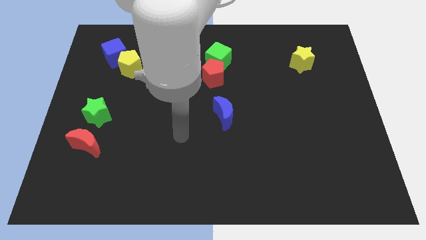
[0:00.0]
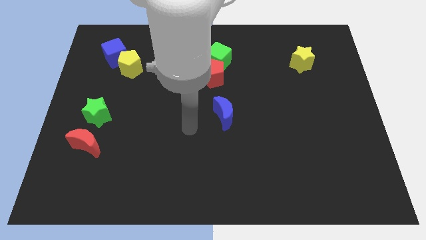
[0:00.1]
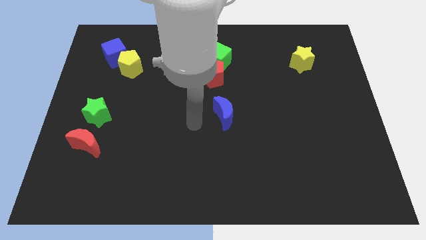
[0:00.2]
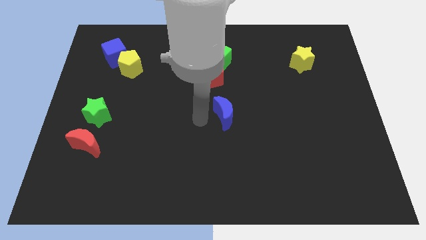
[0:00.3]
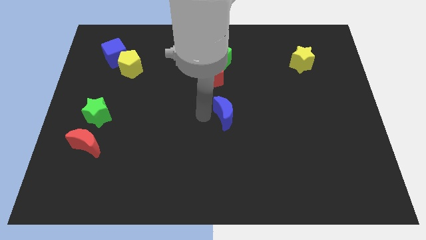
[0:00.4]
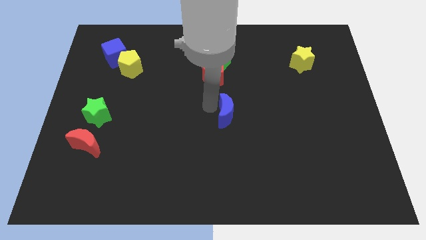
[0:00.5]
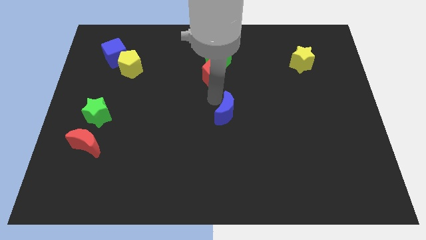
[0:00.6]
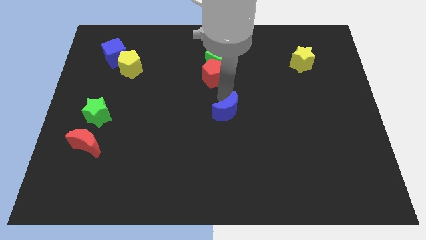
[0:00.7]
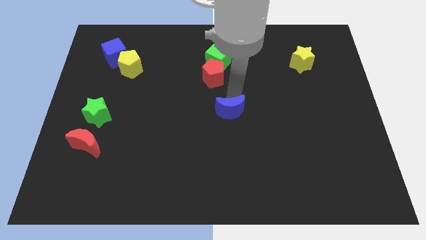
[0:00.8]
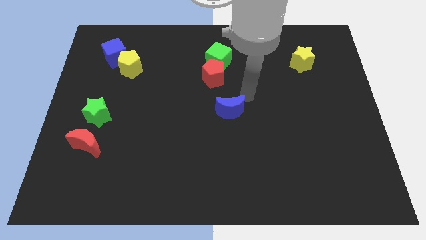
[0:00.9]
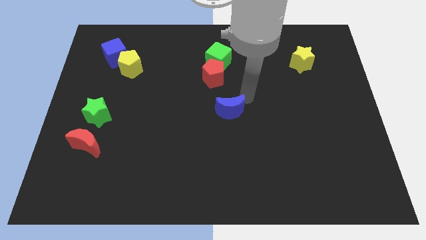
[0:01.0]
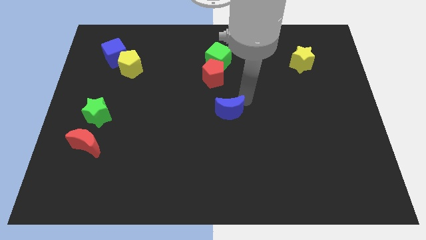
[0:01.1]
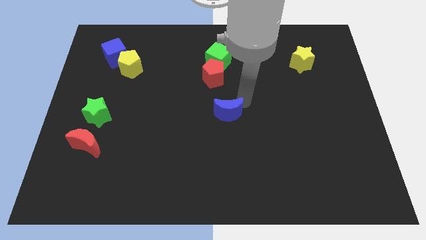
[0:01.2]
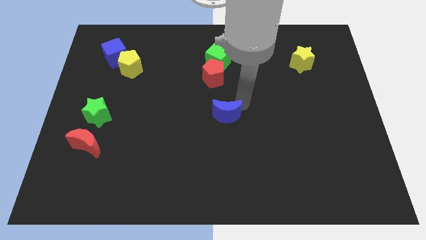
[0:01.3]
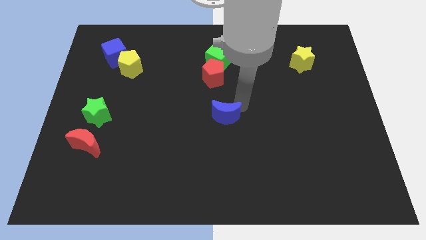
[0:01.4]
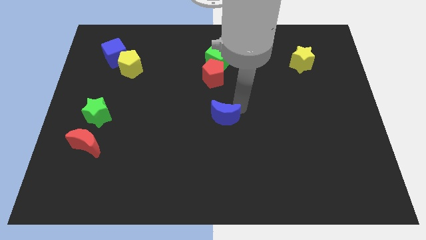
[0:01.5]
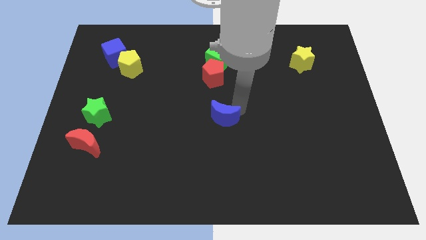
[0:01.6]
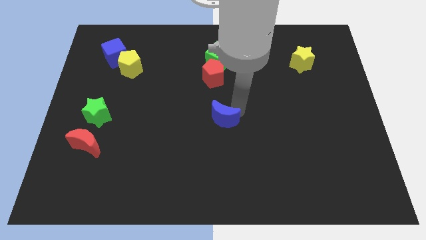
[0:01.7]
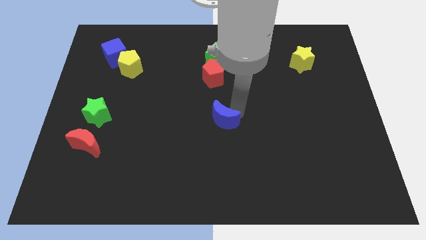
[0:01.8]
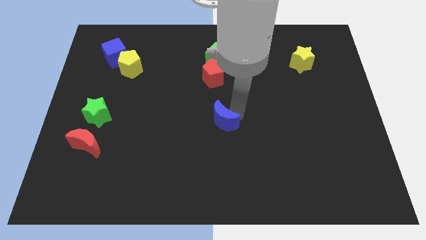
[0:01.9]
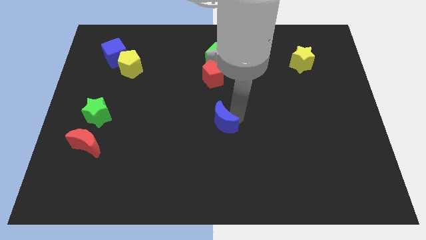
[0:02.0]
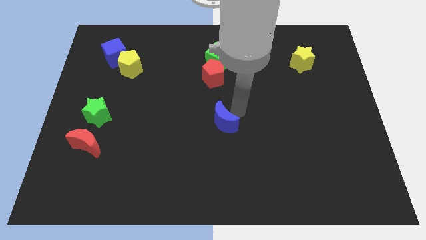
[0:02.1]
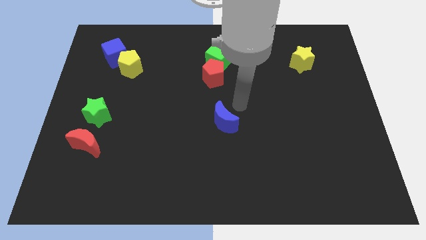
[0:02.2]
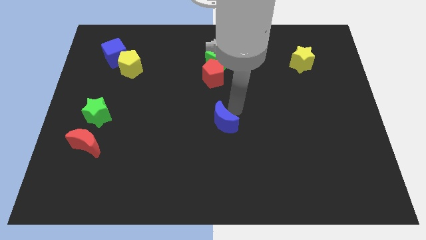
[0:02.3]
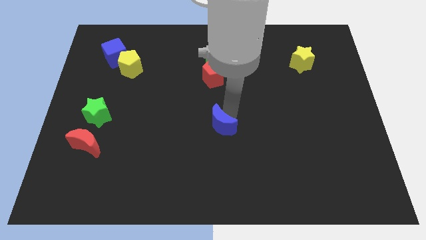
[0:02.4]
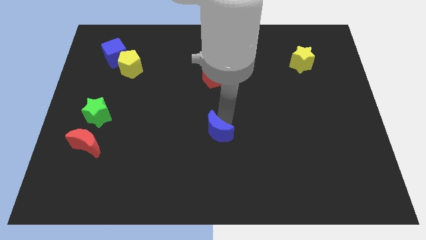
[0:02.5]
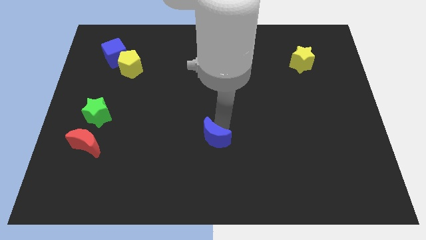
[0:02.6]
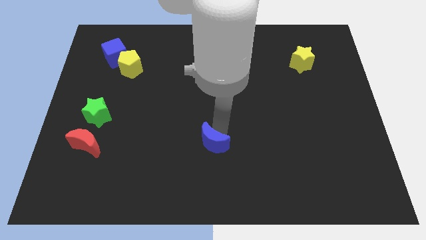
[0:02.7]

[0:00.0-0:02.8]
move the blue moon down and then to the left a little

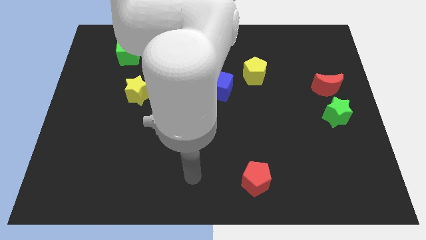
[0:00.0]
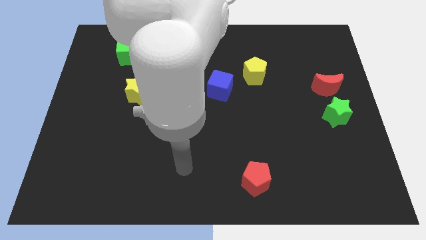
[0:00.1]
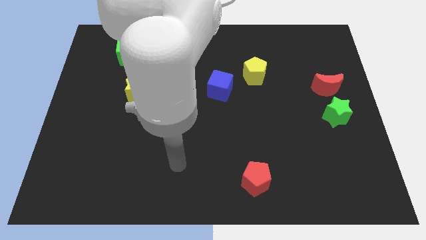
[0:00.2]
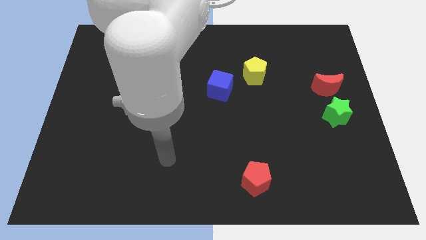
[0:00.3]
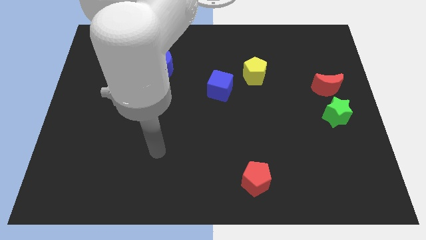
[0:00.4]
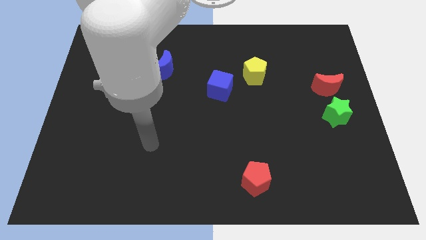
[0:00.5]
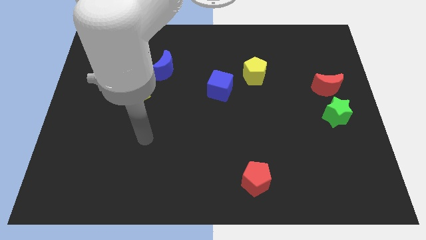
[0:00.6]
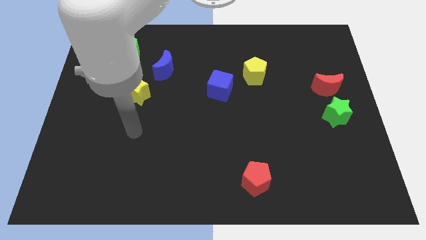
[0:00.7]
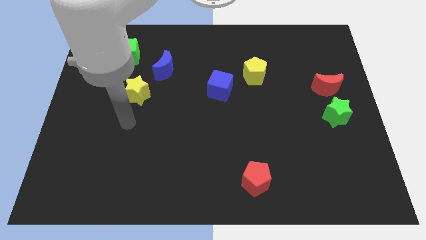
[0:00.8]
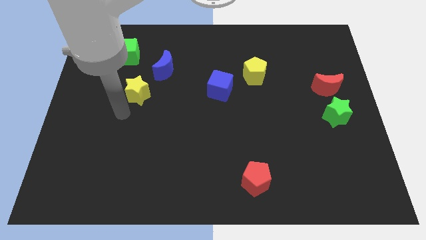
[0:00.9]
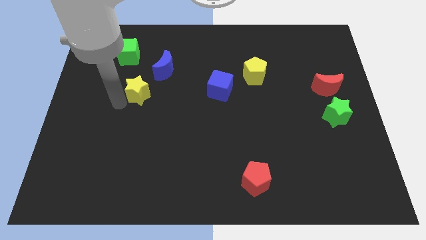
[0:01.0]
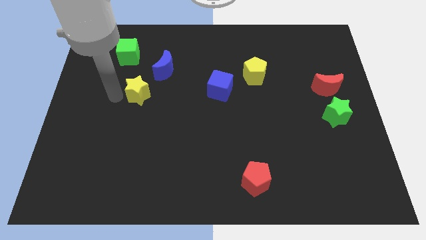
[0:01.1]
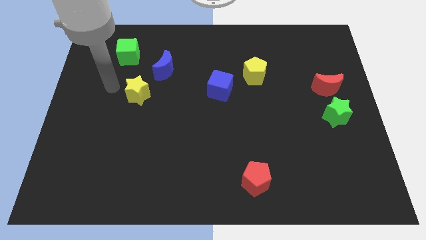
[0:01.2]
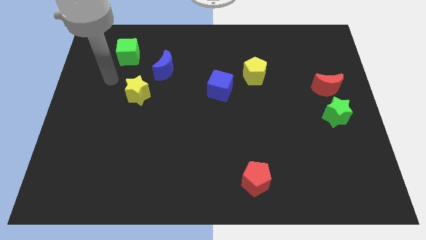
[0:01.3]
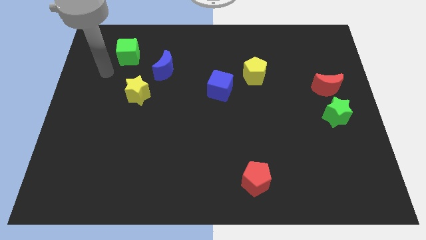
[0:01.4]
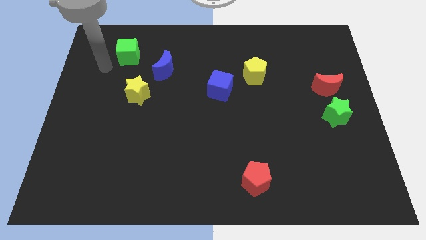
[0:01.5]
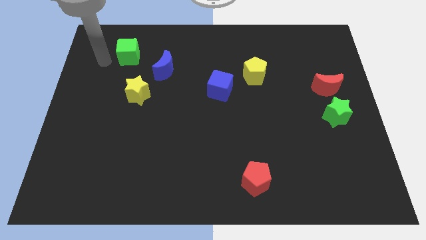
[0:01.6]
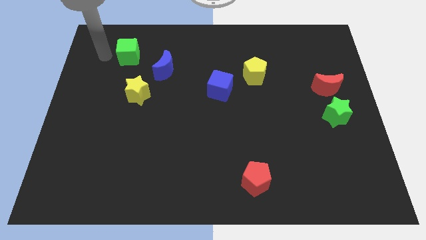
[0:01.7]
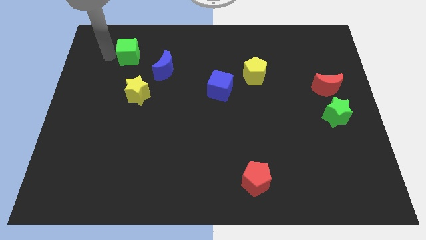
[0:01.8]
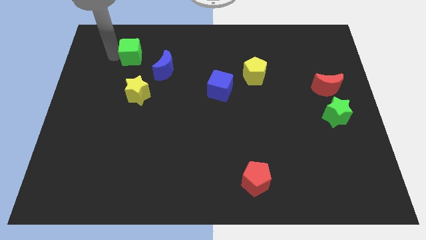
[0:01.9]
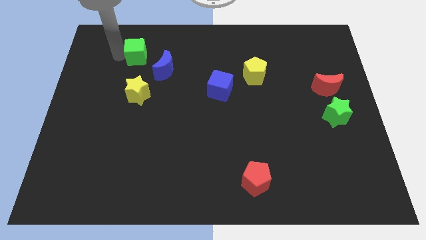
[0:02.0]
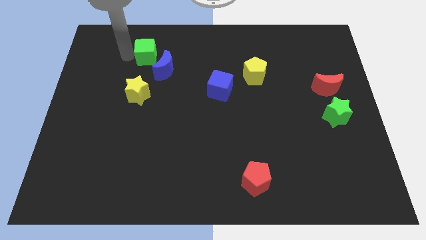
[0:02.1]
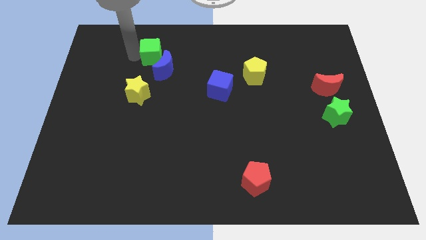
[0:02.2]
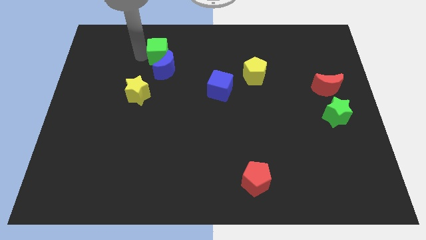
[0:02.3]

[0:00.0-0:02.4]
push the green cube right a little bit

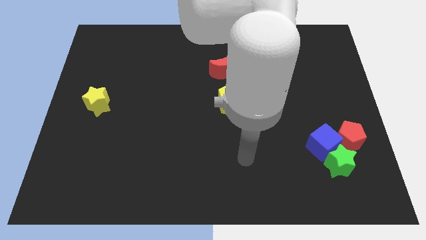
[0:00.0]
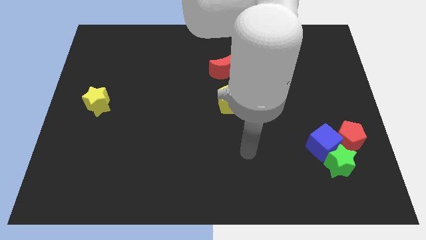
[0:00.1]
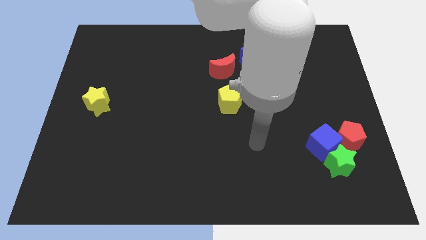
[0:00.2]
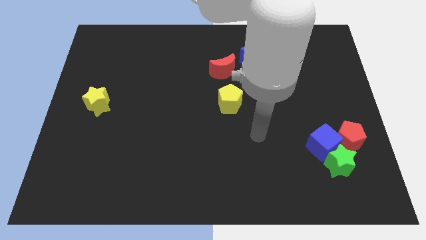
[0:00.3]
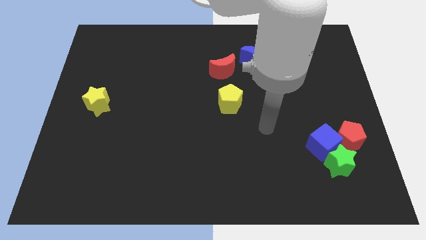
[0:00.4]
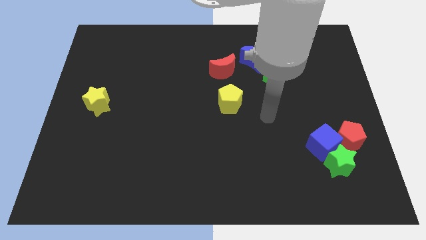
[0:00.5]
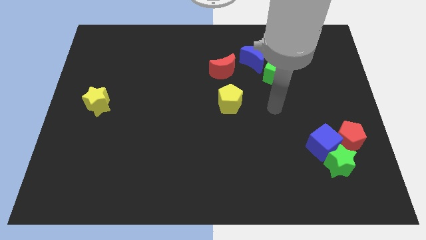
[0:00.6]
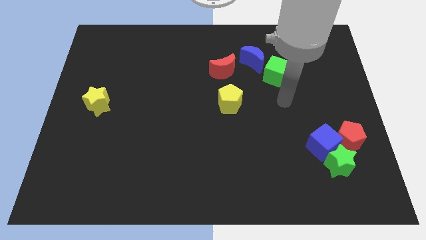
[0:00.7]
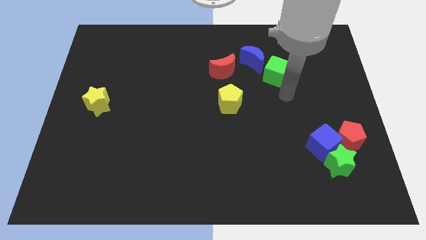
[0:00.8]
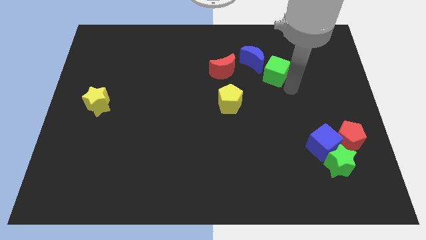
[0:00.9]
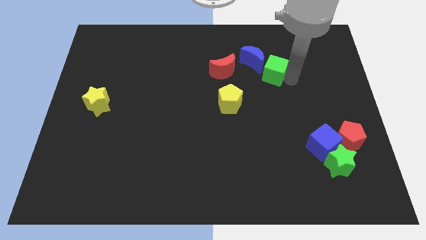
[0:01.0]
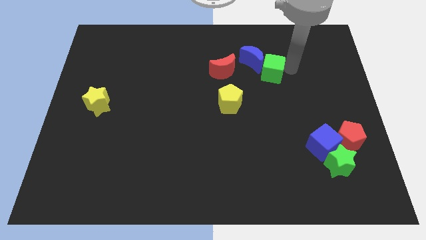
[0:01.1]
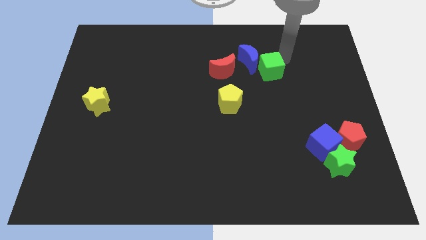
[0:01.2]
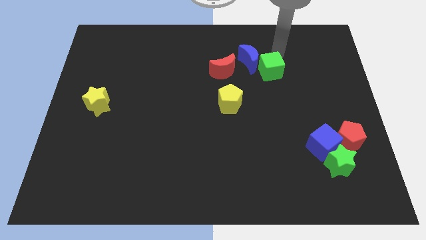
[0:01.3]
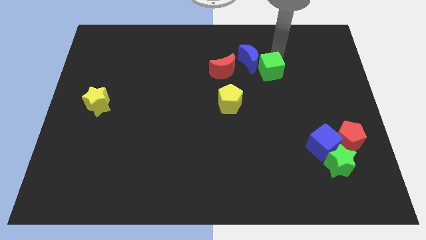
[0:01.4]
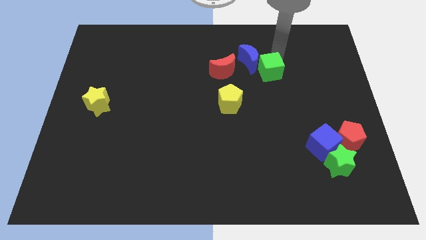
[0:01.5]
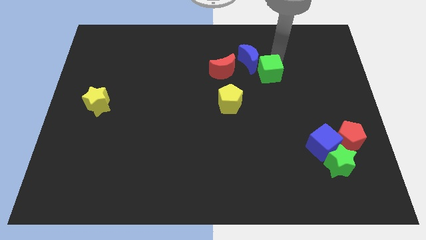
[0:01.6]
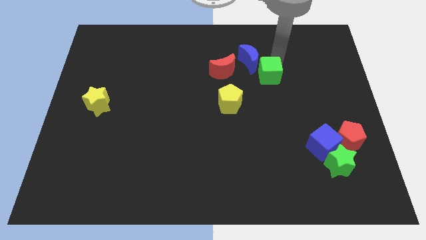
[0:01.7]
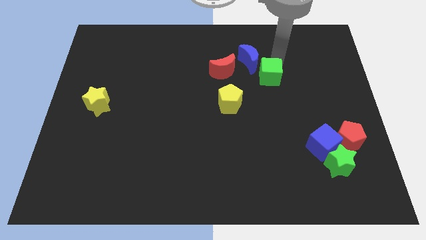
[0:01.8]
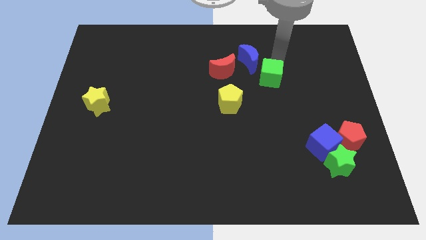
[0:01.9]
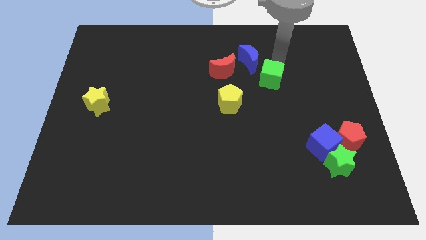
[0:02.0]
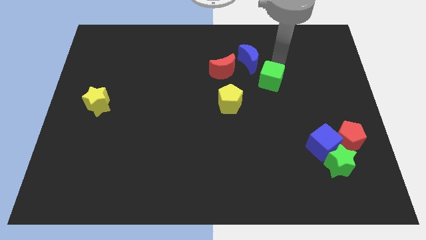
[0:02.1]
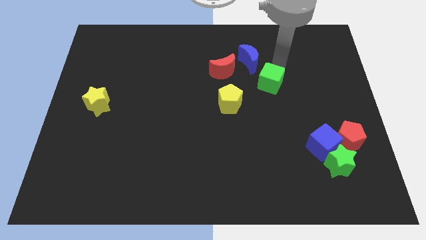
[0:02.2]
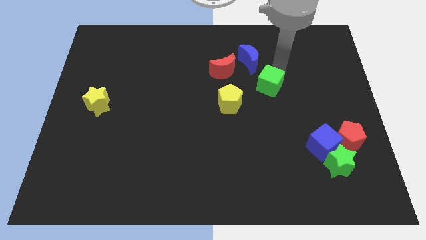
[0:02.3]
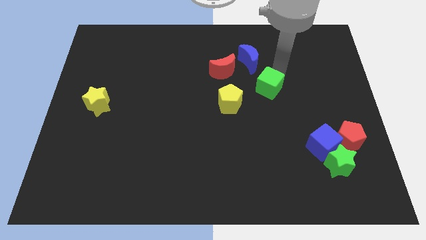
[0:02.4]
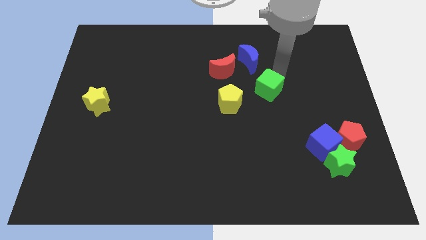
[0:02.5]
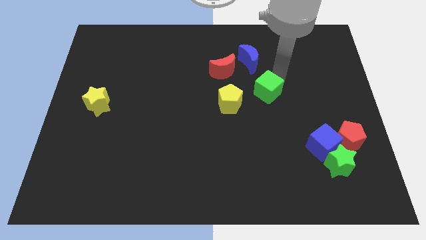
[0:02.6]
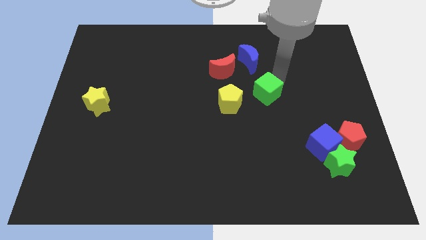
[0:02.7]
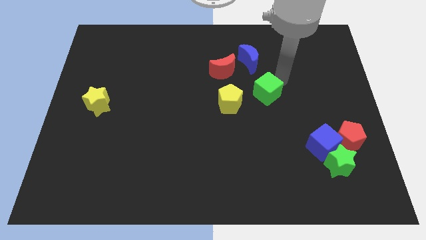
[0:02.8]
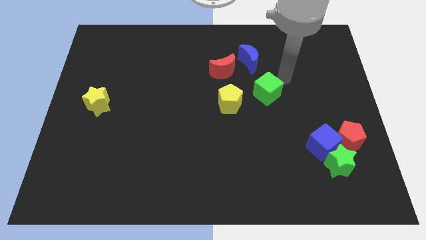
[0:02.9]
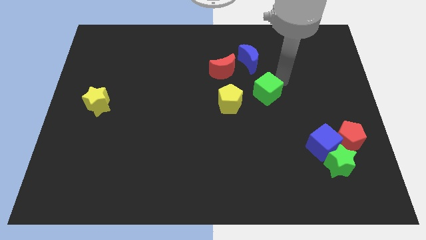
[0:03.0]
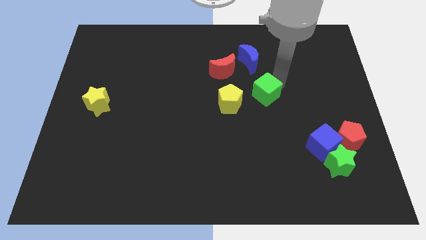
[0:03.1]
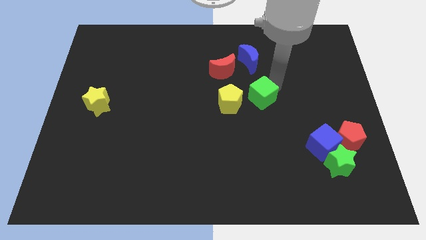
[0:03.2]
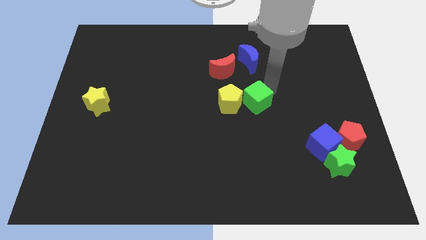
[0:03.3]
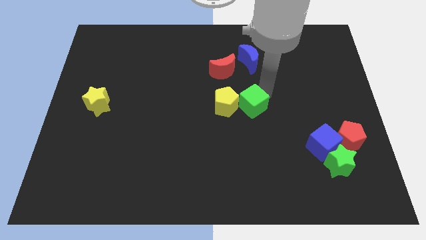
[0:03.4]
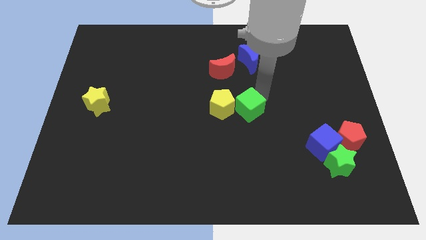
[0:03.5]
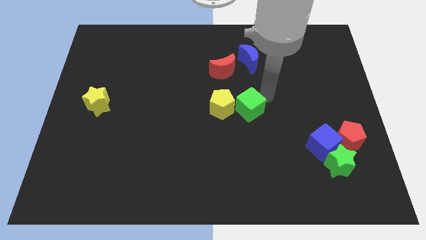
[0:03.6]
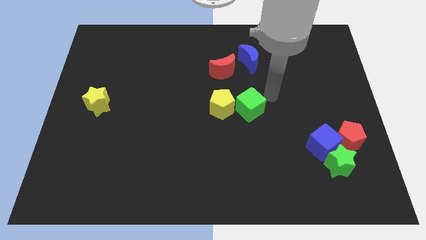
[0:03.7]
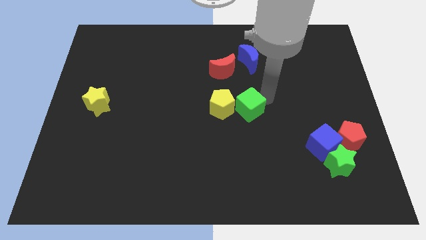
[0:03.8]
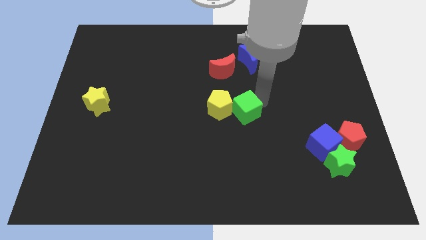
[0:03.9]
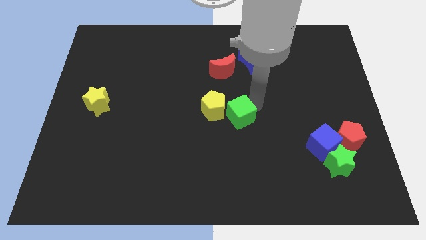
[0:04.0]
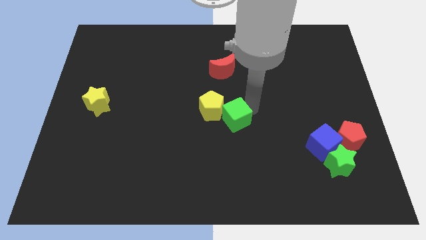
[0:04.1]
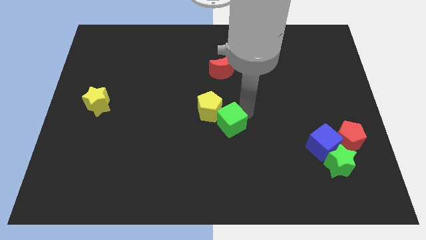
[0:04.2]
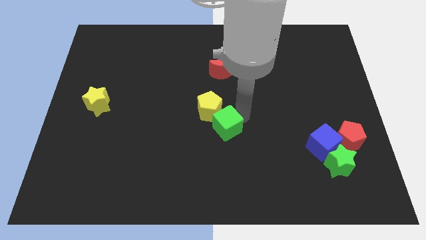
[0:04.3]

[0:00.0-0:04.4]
slide the green cube diagonally downwards and to the left
